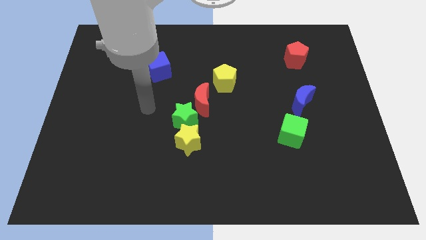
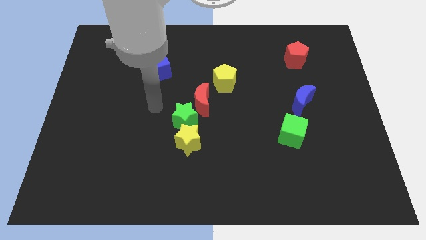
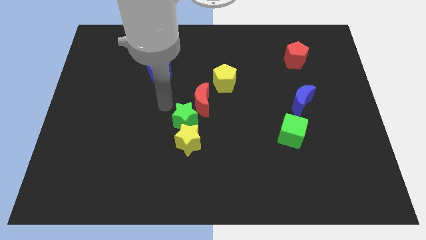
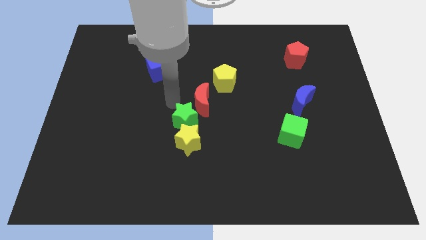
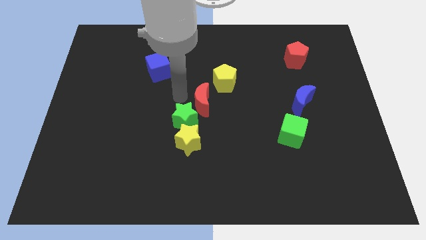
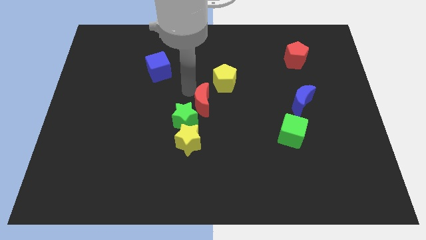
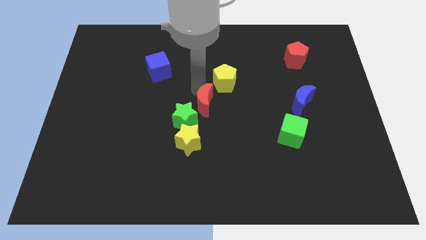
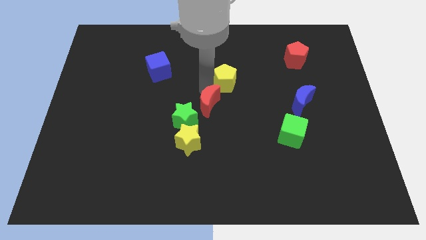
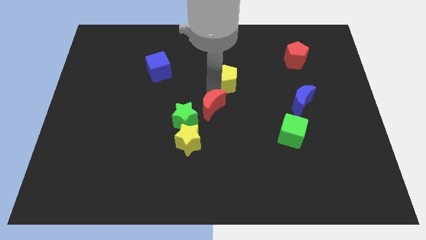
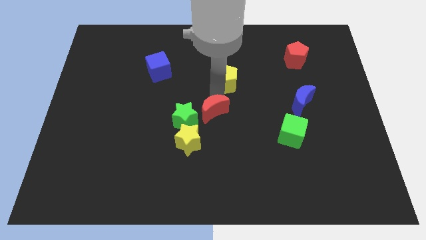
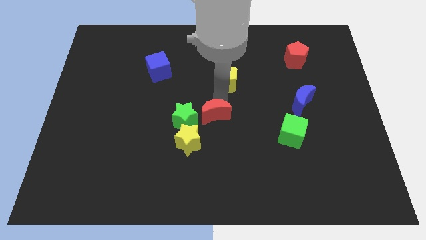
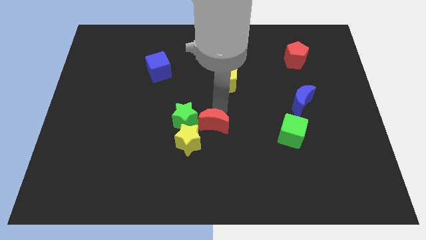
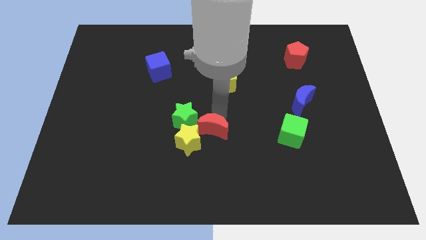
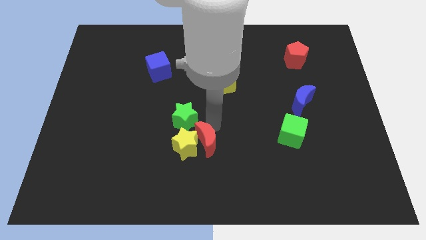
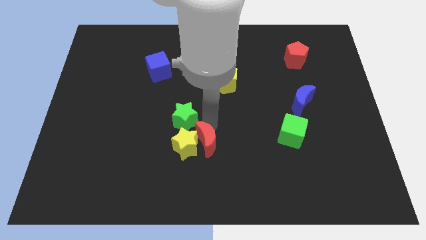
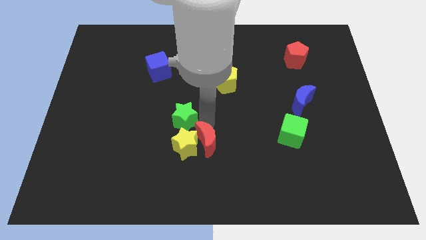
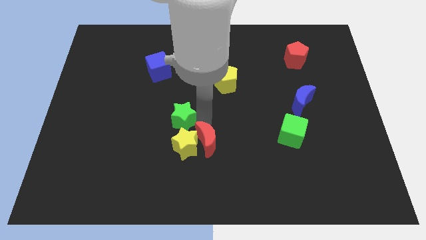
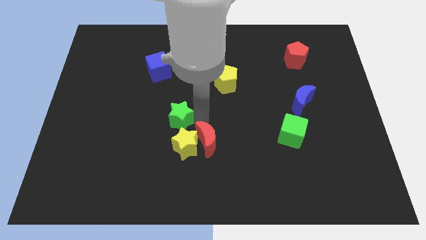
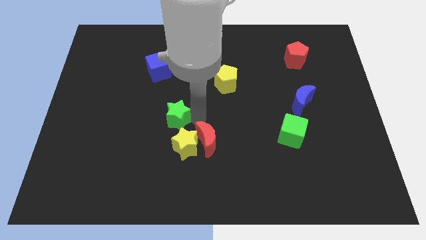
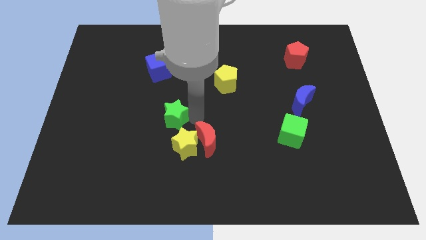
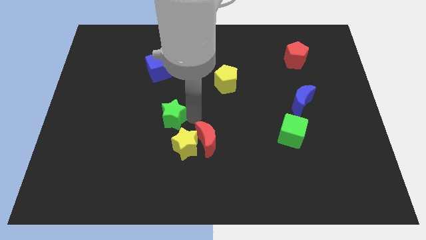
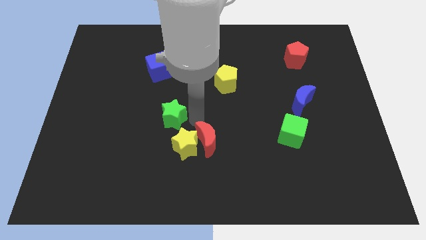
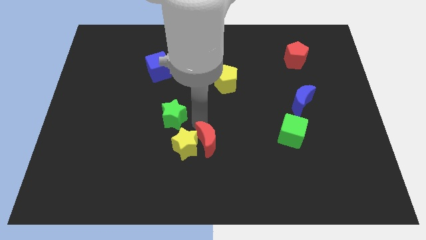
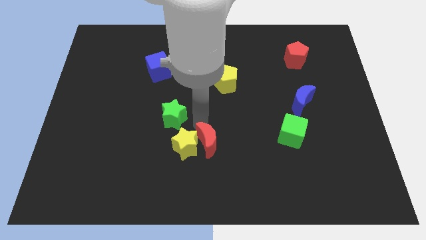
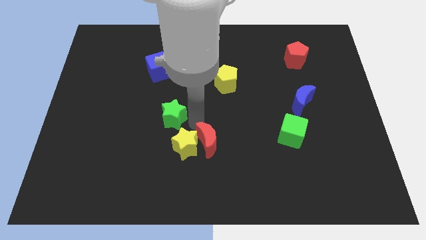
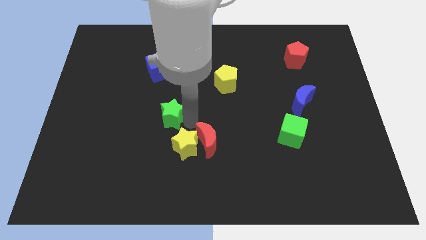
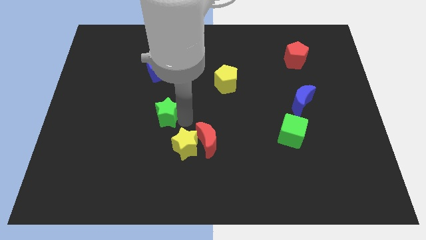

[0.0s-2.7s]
move the green star away from the red moon and yellow star

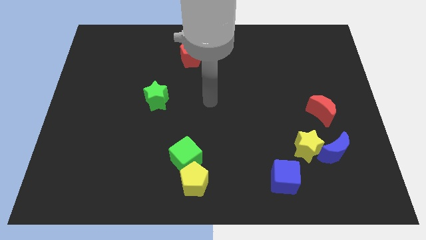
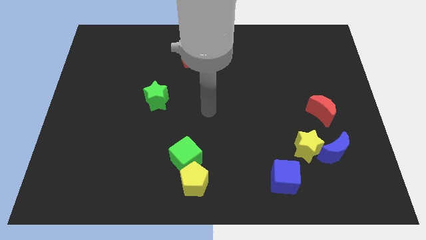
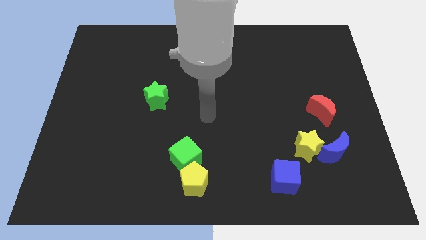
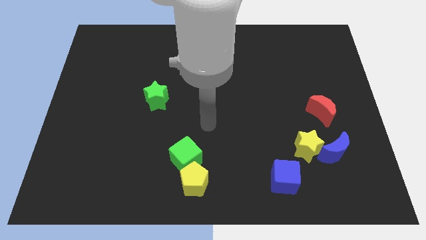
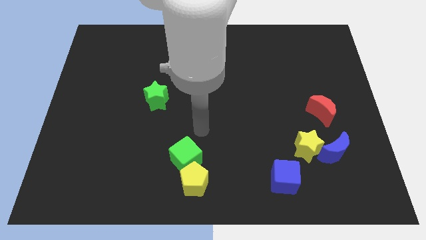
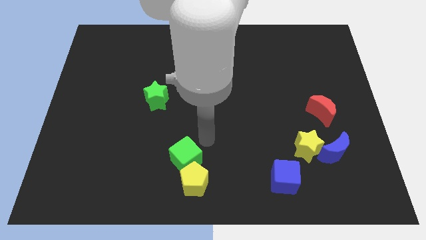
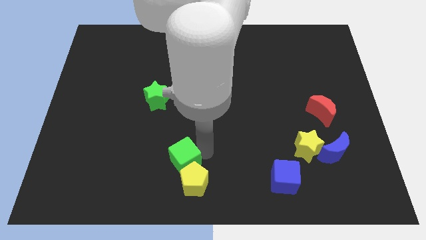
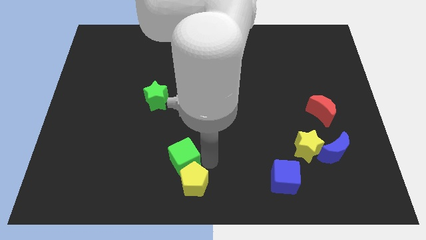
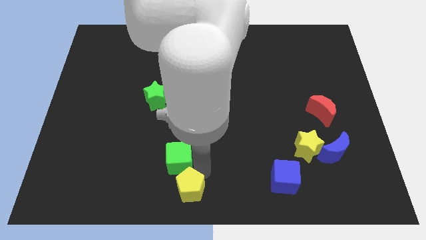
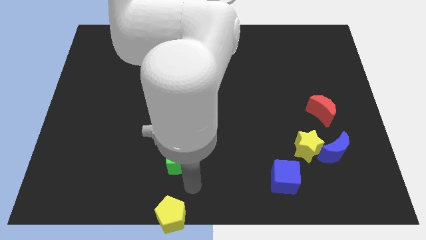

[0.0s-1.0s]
separate the green cube from the yellow pentagon

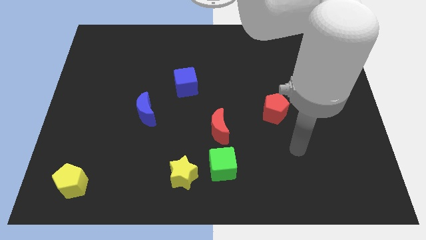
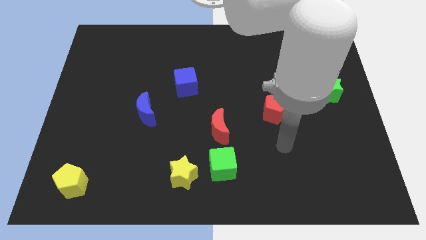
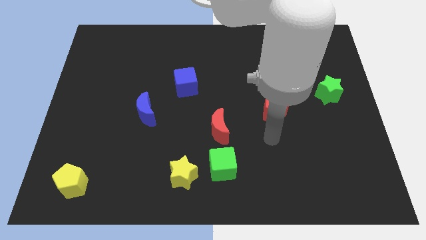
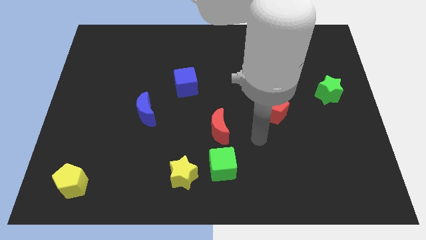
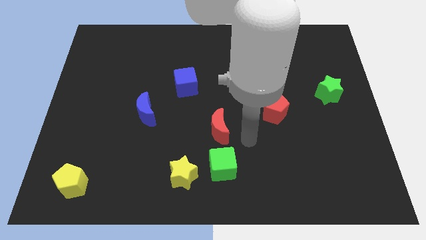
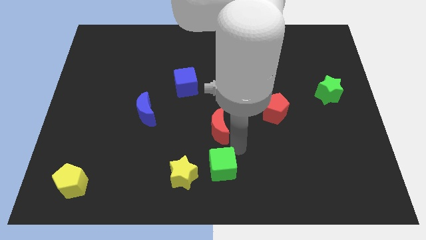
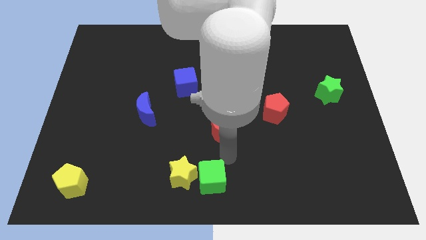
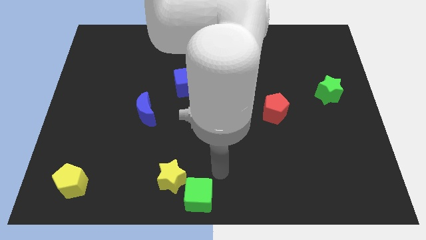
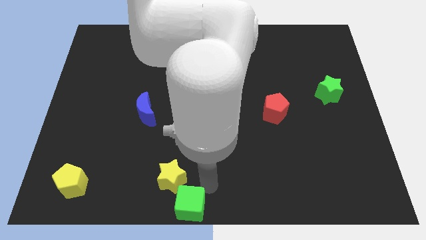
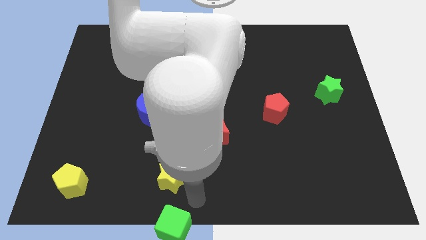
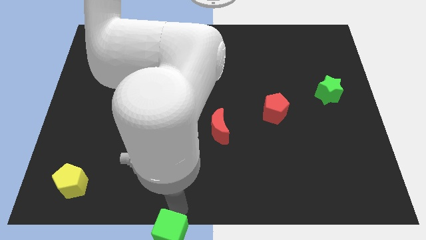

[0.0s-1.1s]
pull the yellow star apart from the green cube

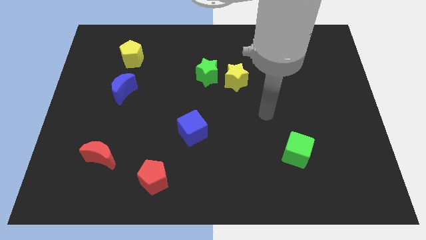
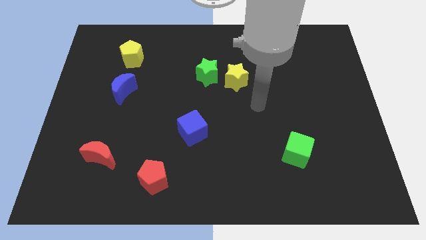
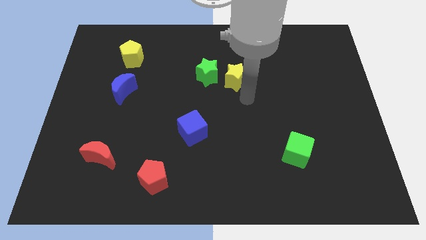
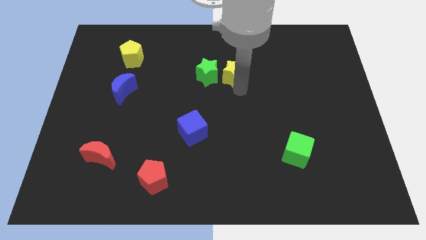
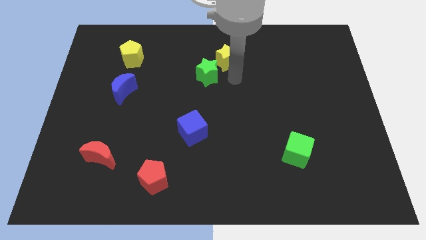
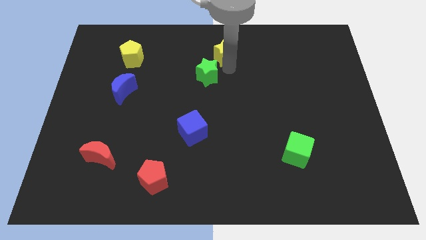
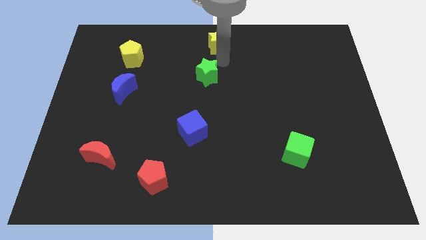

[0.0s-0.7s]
move the green star away from the yellow star

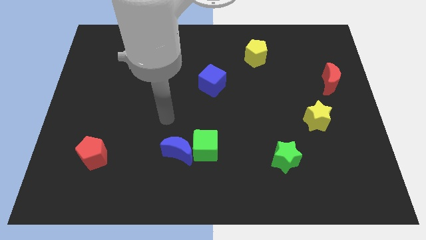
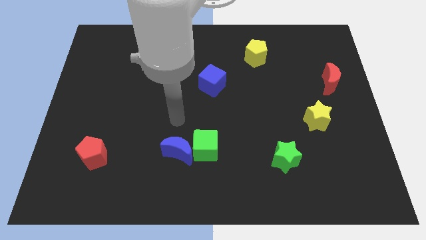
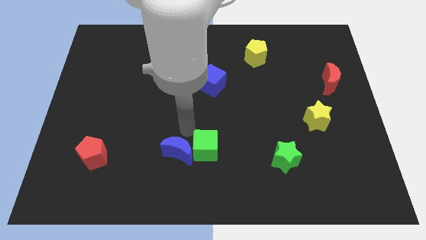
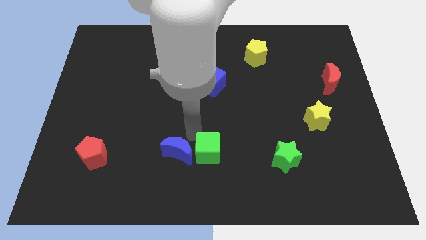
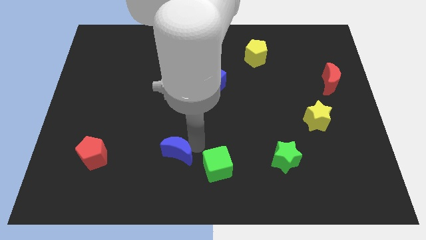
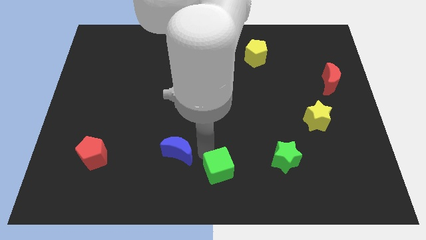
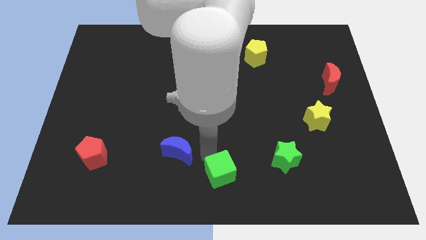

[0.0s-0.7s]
separate the blue moon from the green cube

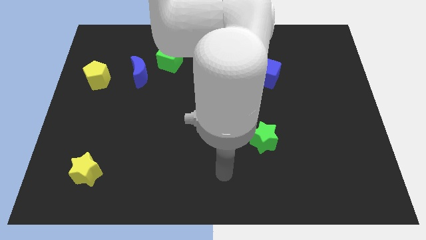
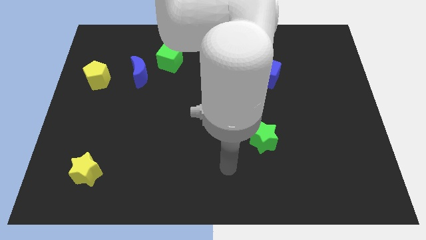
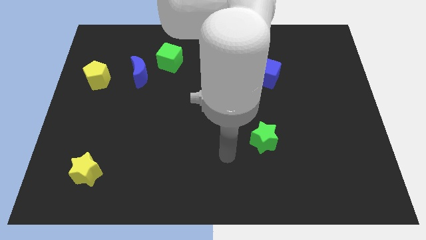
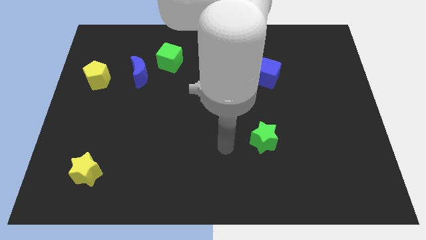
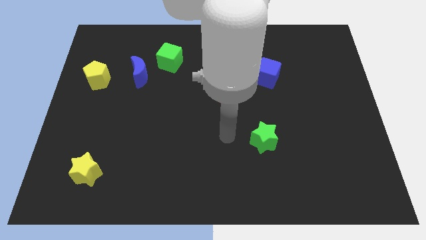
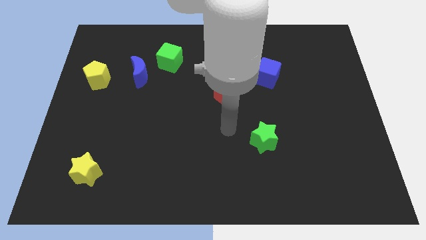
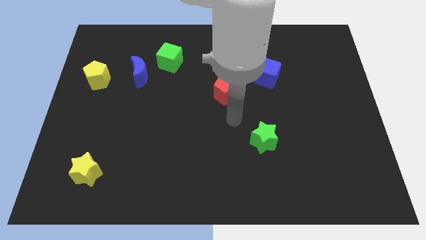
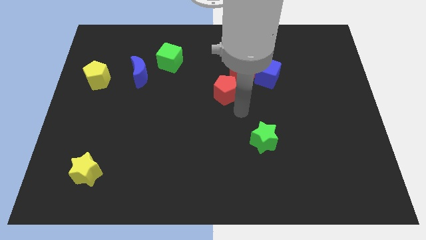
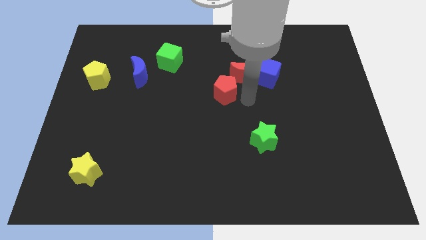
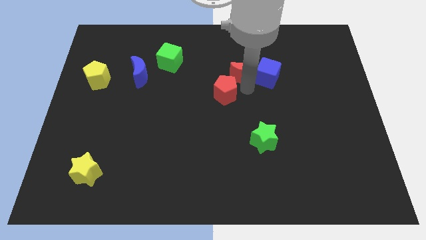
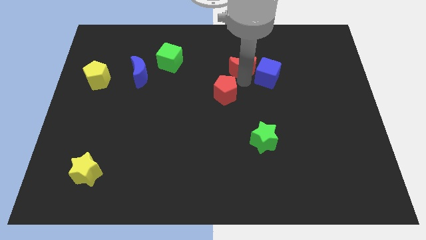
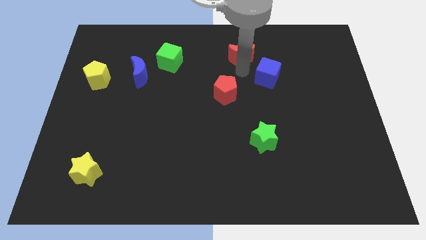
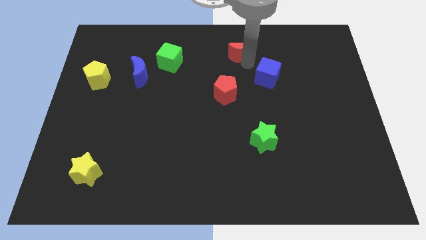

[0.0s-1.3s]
move the blue cube away from the red moon

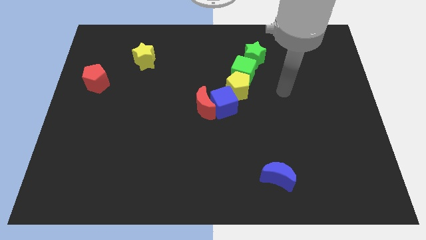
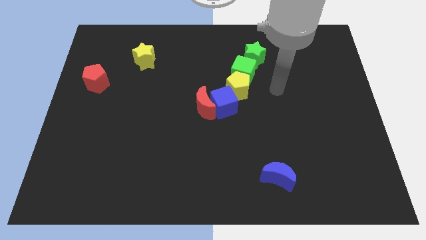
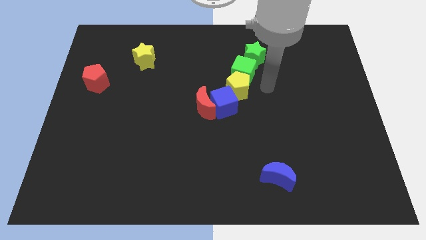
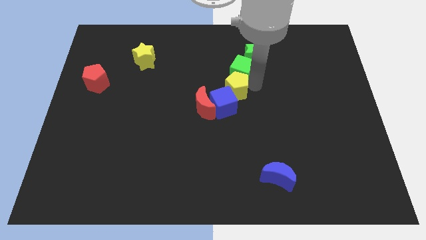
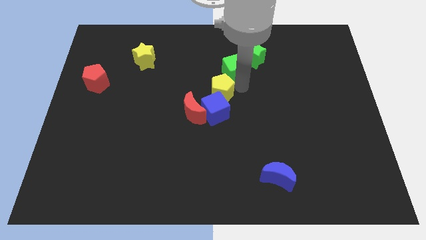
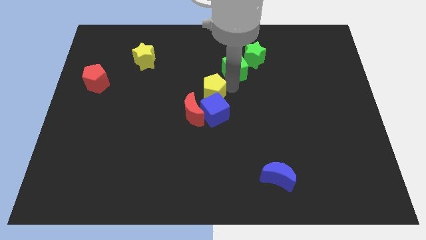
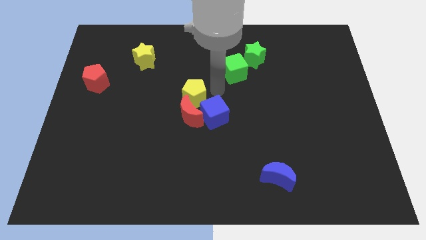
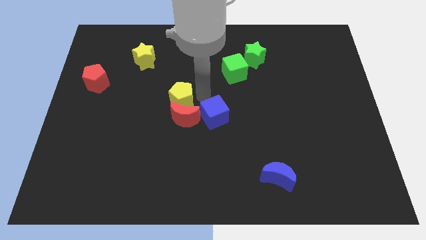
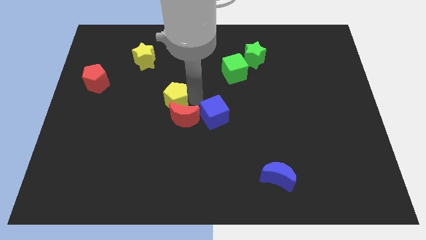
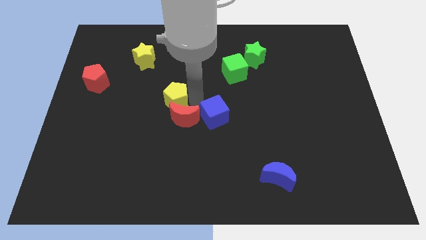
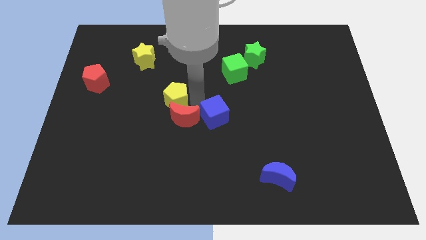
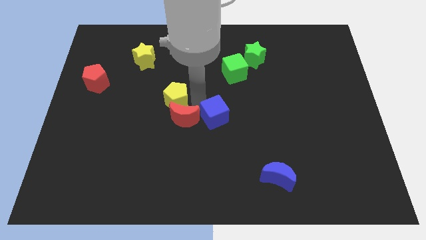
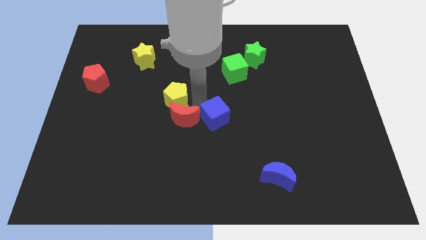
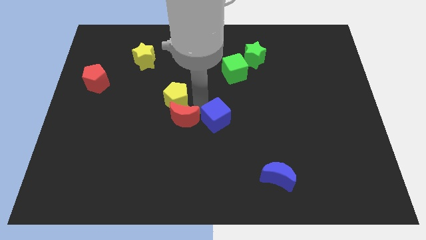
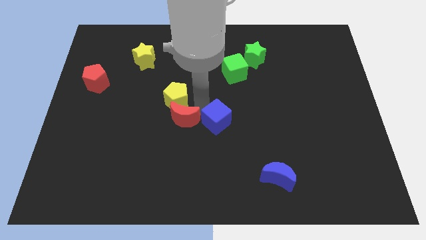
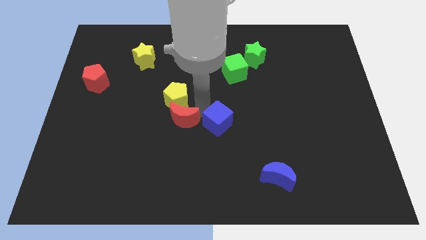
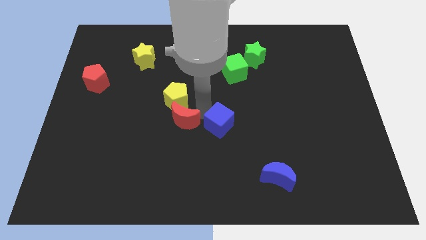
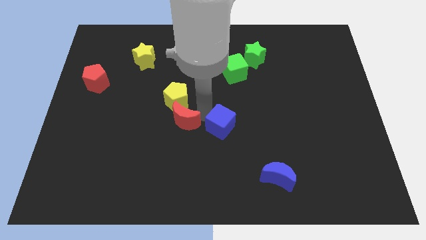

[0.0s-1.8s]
separate the blue cube from the red moon and yellow pentagon
